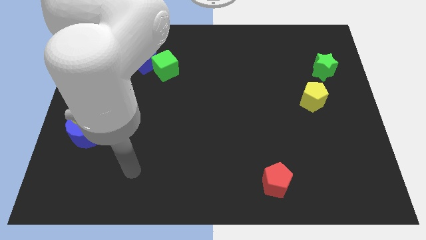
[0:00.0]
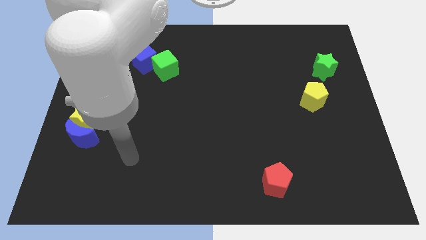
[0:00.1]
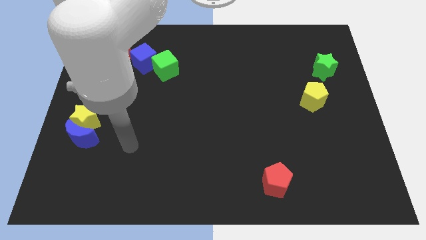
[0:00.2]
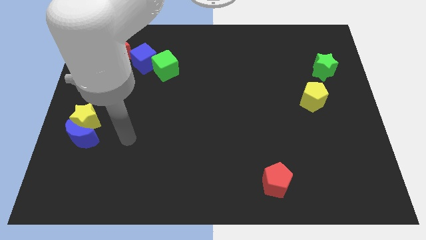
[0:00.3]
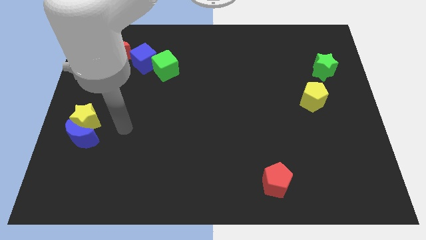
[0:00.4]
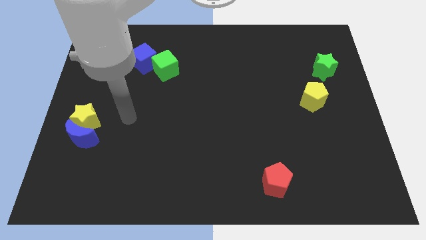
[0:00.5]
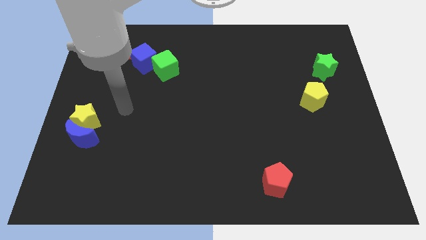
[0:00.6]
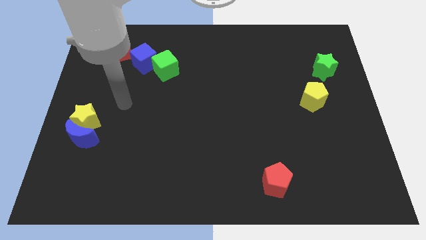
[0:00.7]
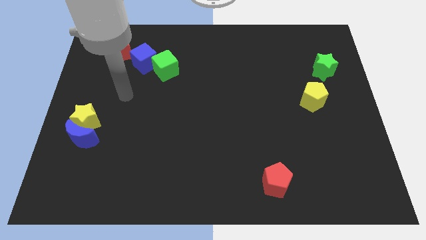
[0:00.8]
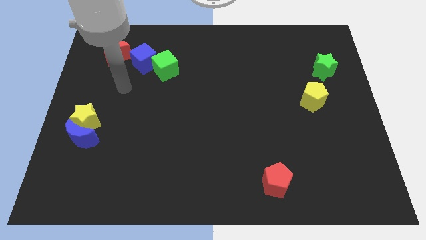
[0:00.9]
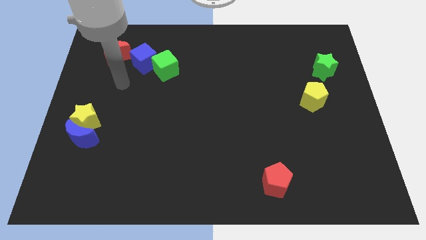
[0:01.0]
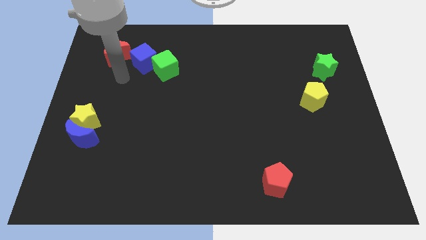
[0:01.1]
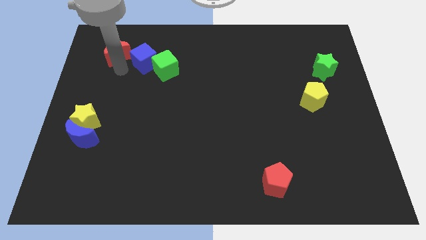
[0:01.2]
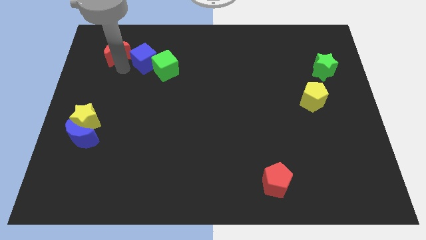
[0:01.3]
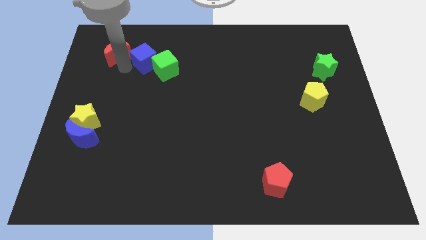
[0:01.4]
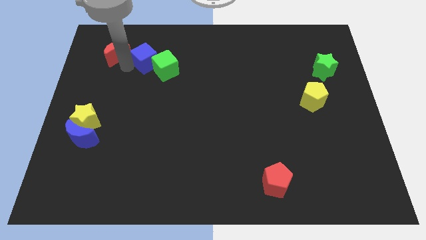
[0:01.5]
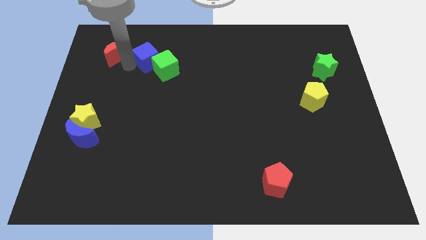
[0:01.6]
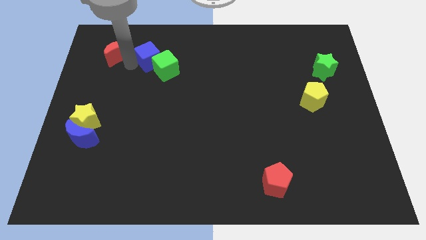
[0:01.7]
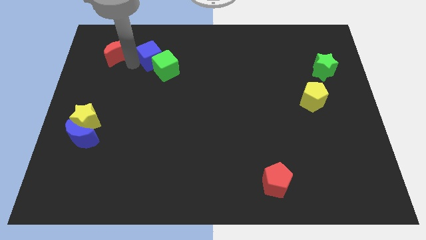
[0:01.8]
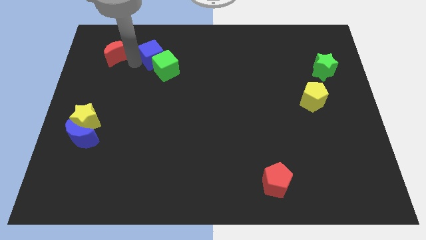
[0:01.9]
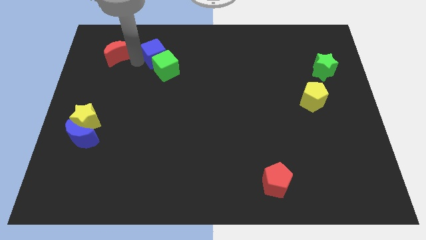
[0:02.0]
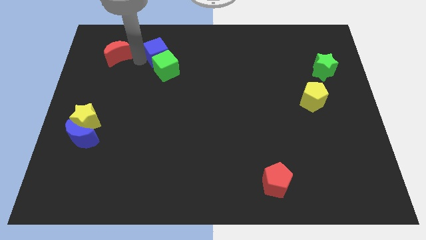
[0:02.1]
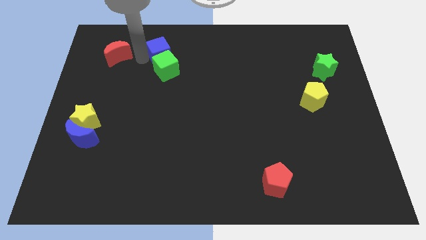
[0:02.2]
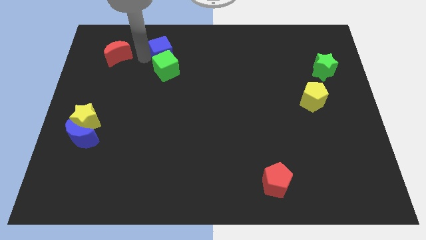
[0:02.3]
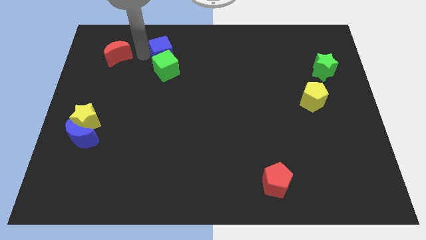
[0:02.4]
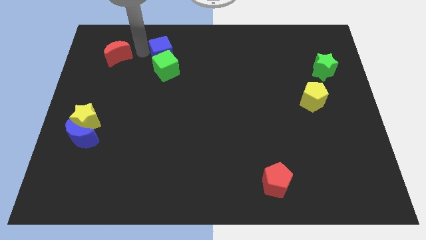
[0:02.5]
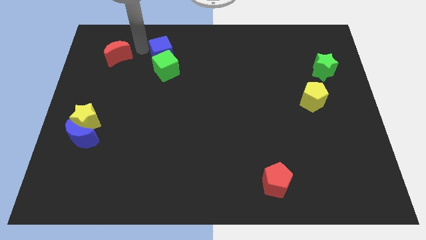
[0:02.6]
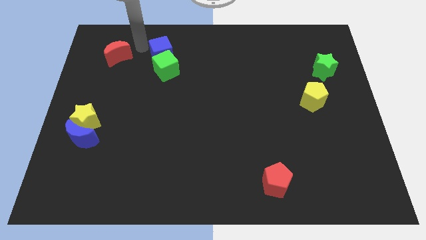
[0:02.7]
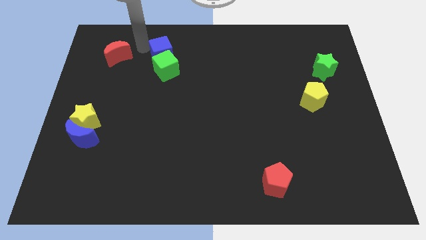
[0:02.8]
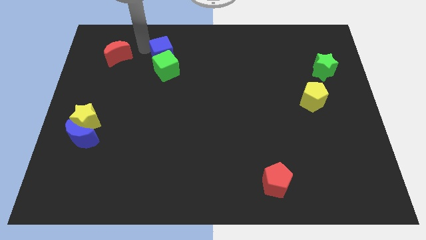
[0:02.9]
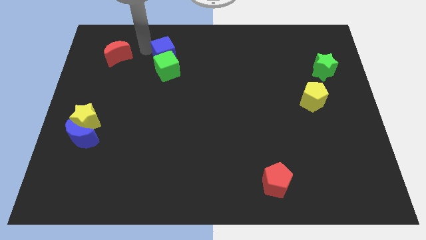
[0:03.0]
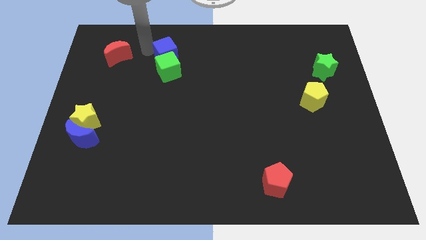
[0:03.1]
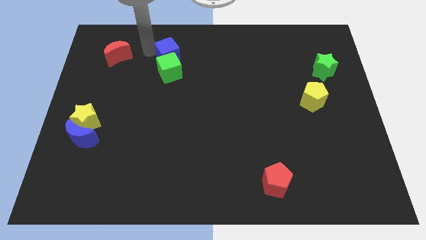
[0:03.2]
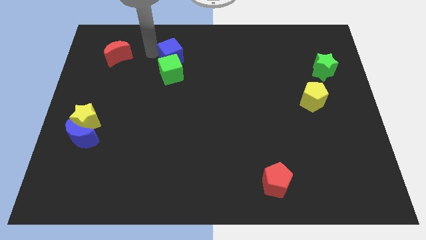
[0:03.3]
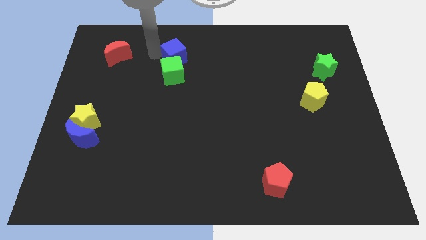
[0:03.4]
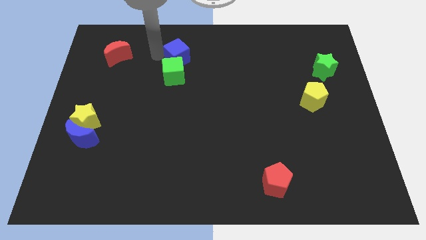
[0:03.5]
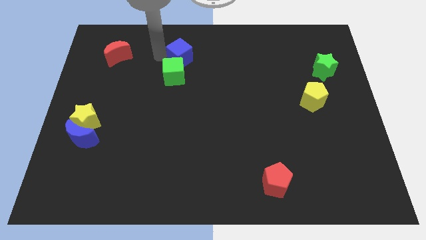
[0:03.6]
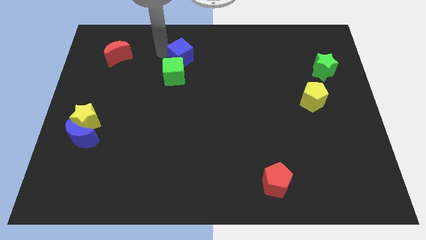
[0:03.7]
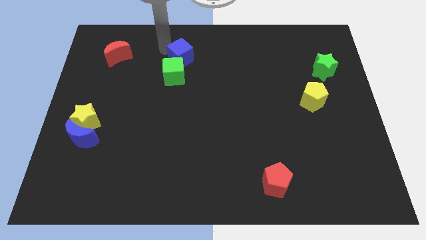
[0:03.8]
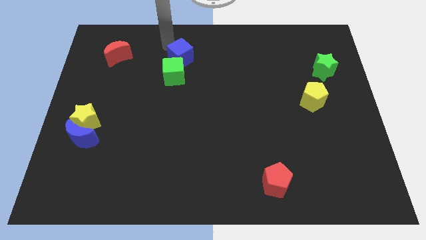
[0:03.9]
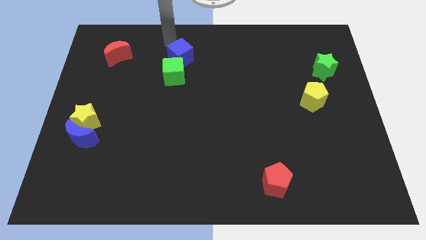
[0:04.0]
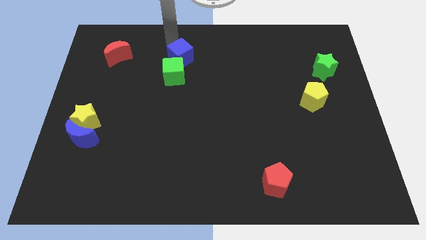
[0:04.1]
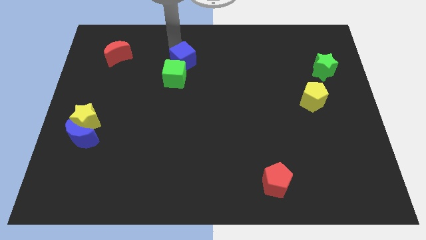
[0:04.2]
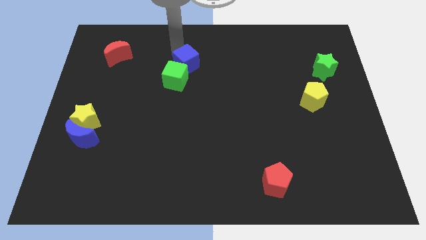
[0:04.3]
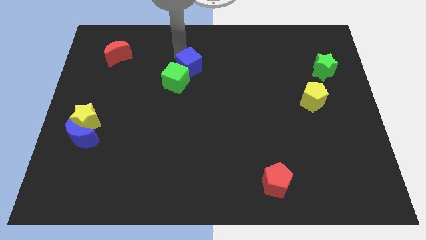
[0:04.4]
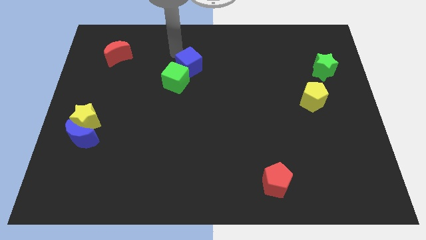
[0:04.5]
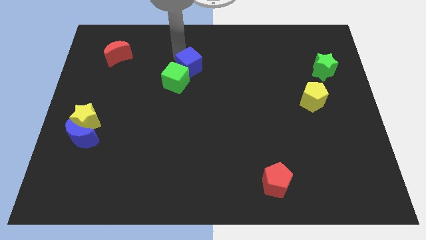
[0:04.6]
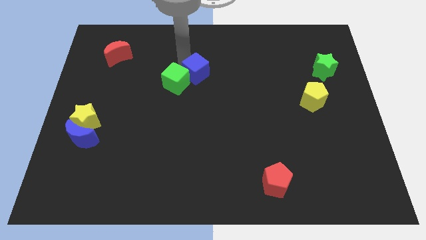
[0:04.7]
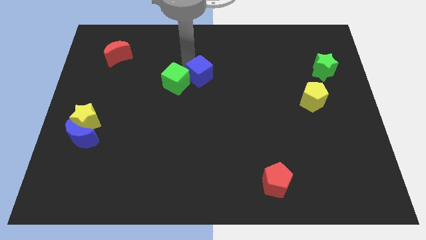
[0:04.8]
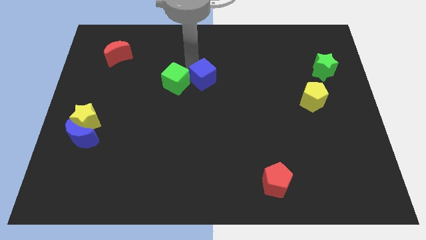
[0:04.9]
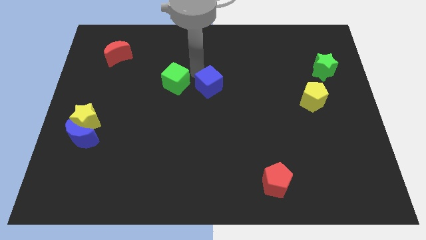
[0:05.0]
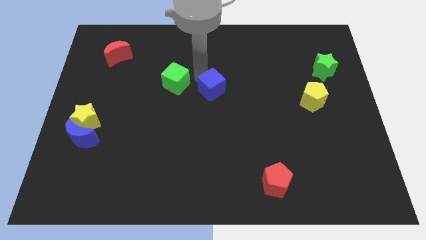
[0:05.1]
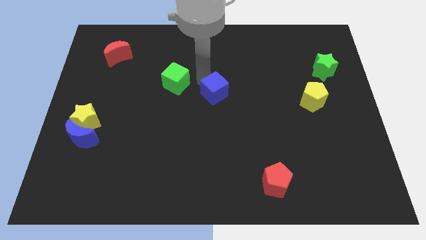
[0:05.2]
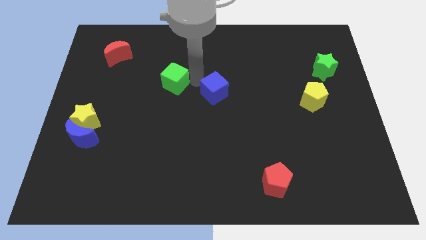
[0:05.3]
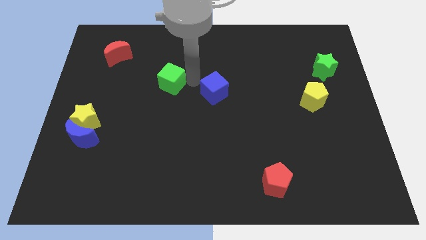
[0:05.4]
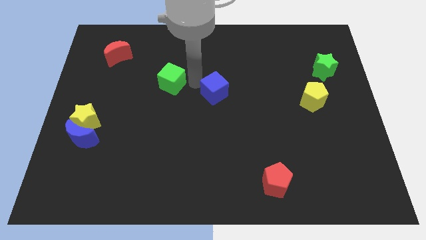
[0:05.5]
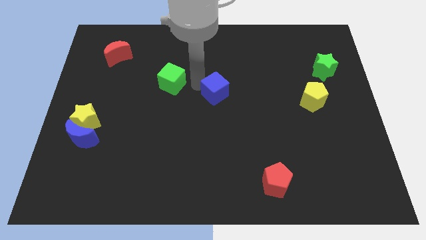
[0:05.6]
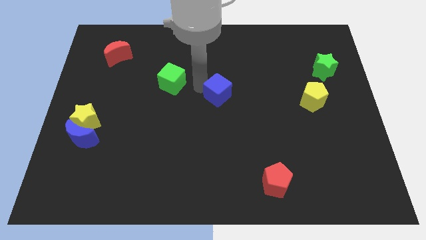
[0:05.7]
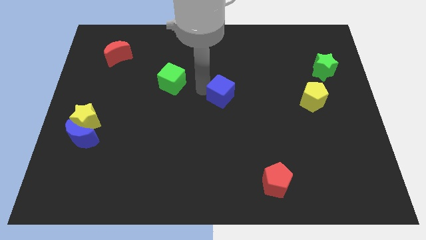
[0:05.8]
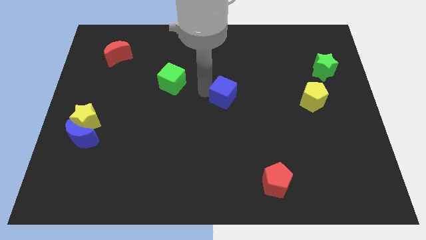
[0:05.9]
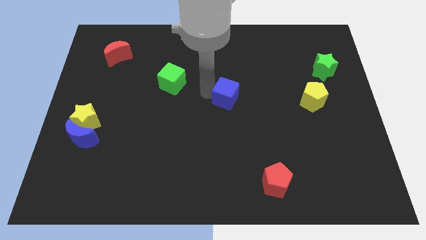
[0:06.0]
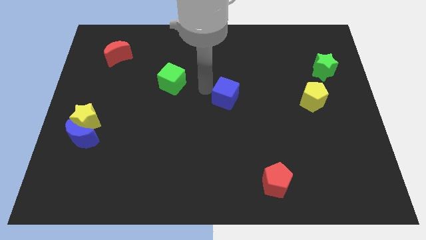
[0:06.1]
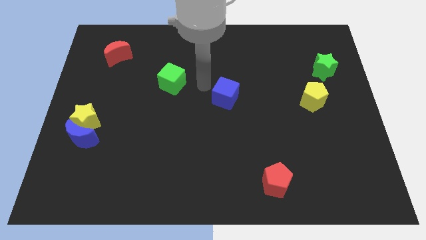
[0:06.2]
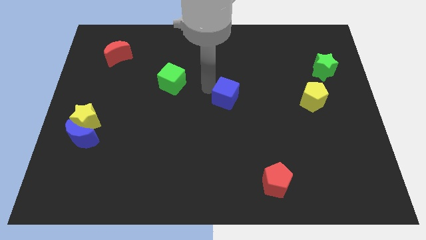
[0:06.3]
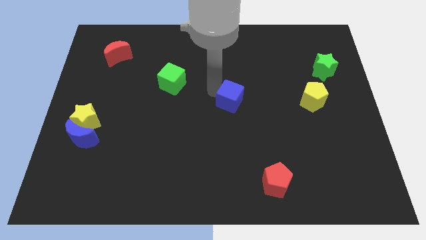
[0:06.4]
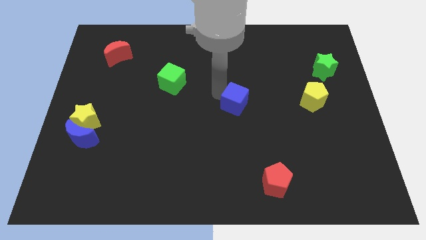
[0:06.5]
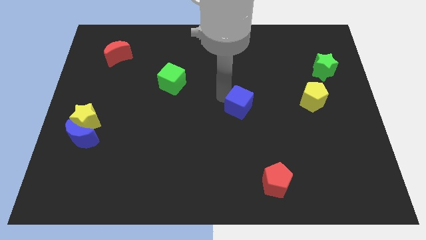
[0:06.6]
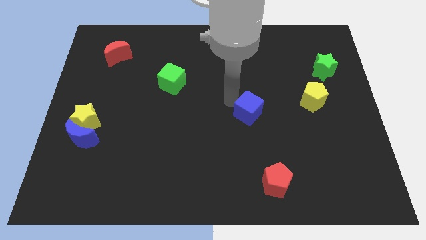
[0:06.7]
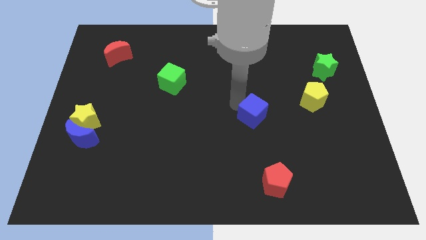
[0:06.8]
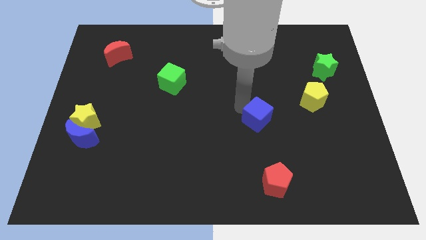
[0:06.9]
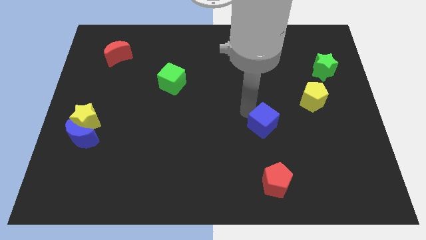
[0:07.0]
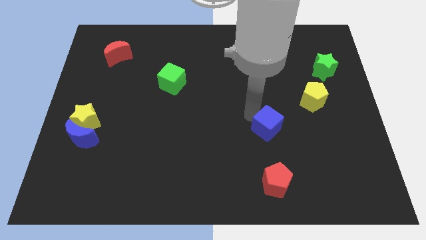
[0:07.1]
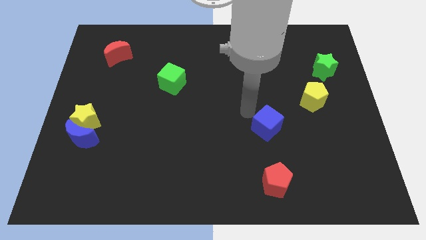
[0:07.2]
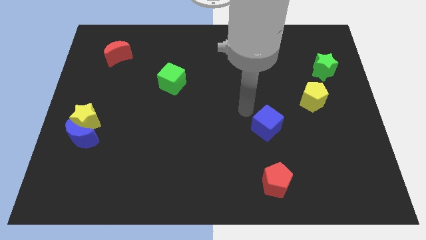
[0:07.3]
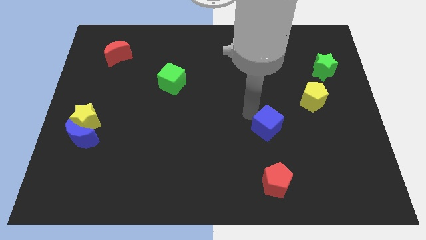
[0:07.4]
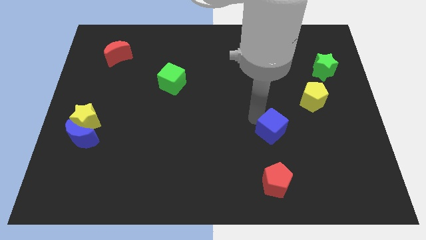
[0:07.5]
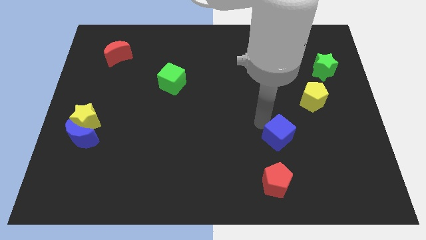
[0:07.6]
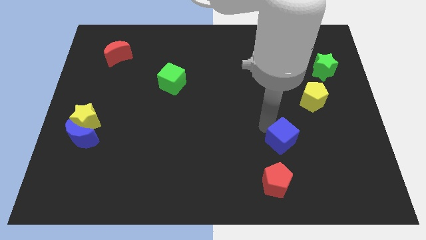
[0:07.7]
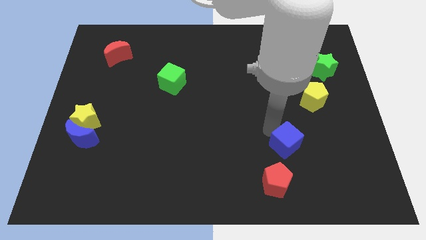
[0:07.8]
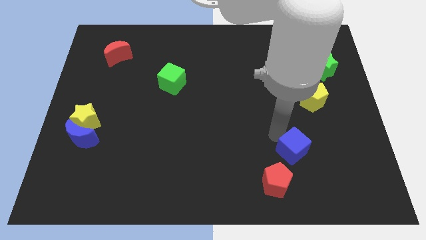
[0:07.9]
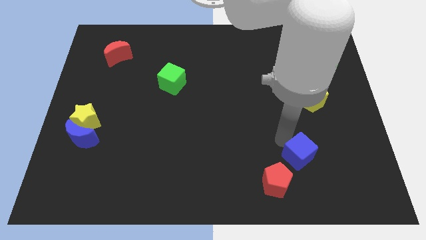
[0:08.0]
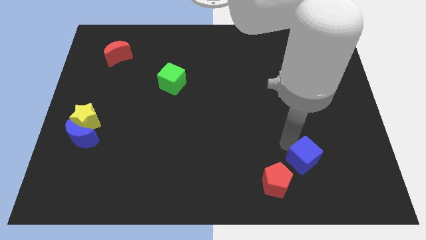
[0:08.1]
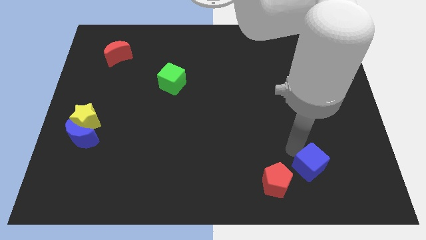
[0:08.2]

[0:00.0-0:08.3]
slide the blue cube right of the red pentagon
